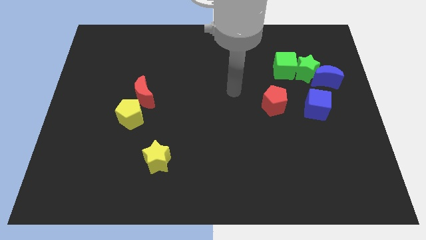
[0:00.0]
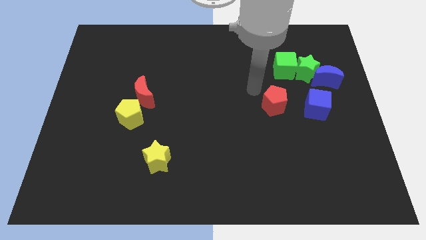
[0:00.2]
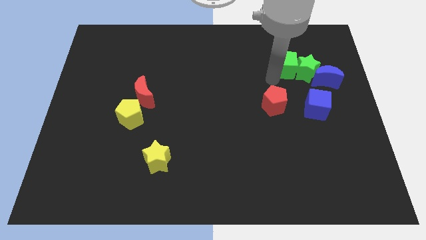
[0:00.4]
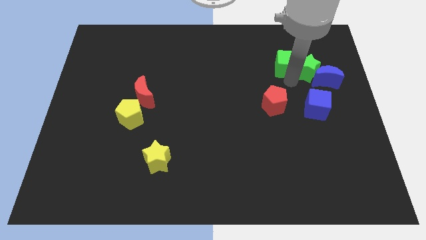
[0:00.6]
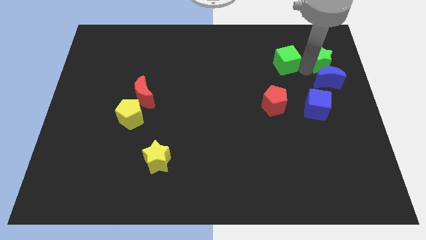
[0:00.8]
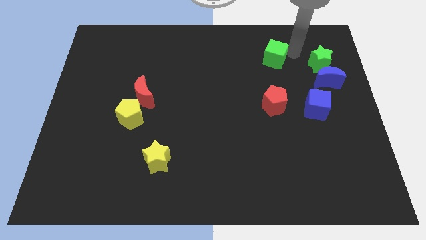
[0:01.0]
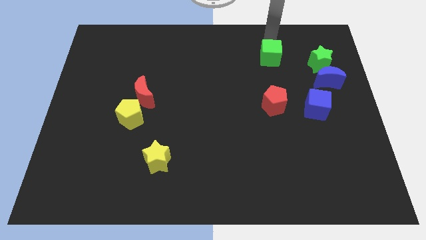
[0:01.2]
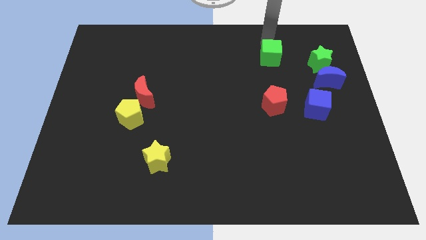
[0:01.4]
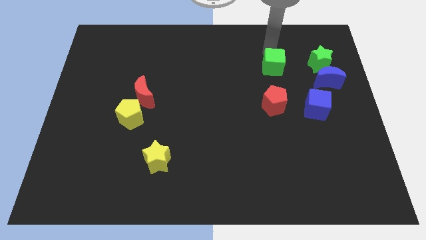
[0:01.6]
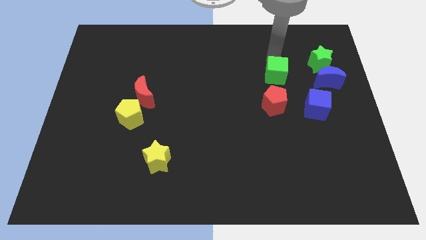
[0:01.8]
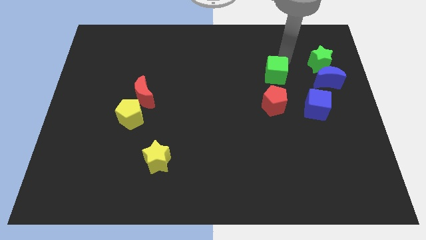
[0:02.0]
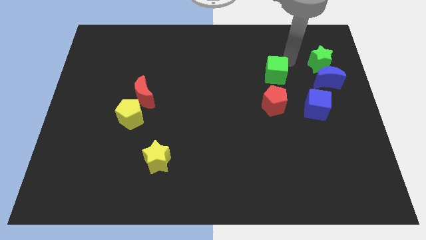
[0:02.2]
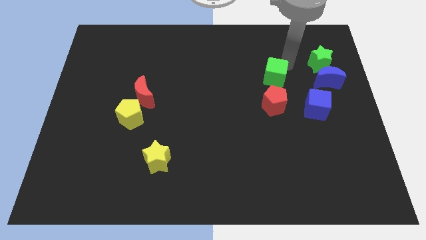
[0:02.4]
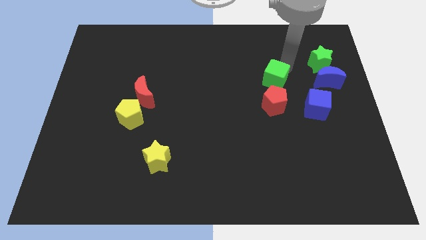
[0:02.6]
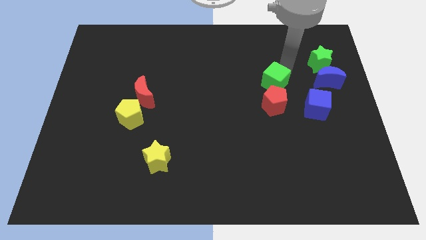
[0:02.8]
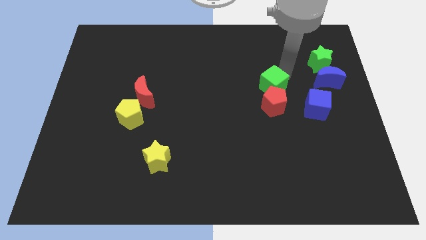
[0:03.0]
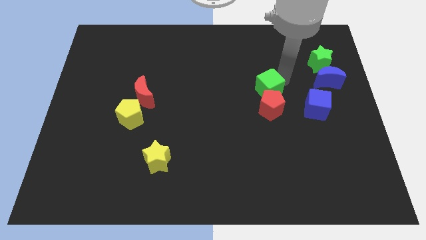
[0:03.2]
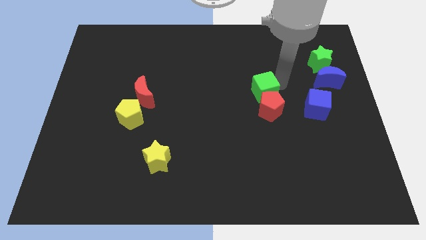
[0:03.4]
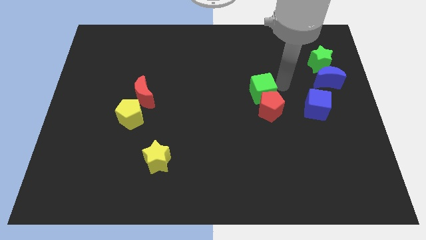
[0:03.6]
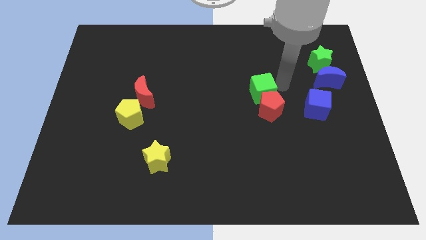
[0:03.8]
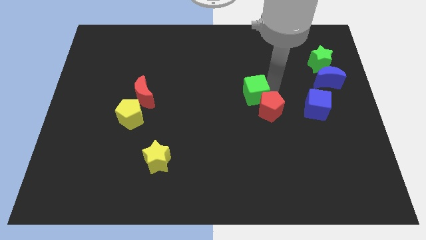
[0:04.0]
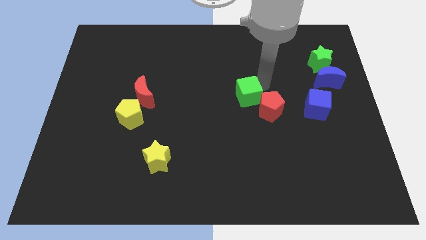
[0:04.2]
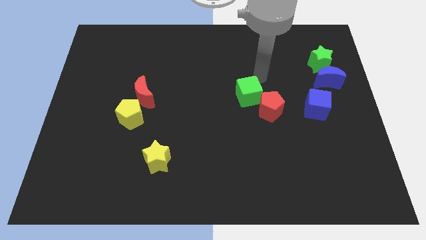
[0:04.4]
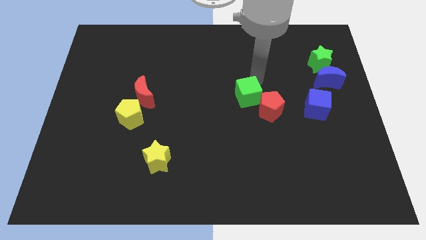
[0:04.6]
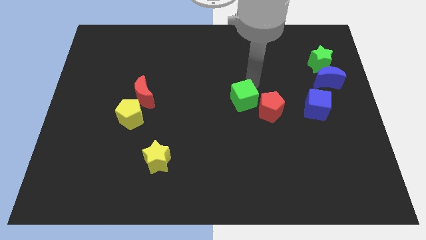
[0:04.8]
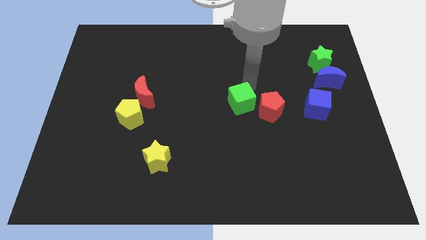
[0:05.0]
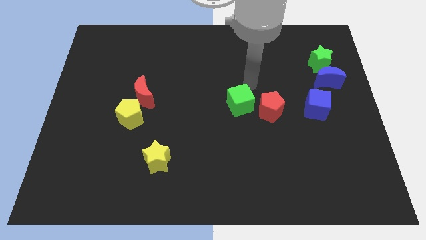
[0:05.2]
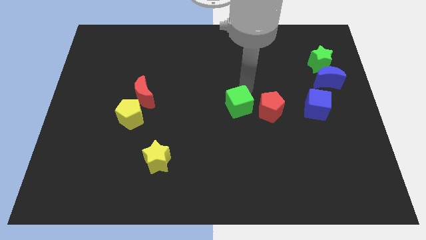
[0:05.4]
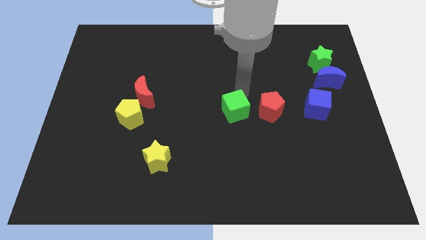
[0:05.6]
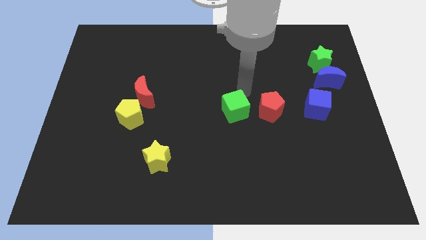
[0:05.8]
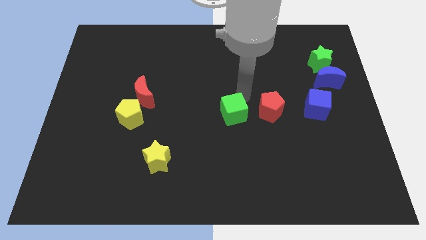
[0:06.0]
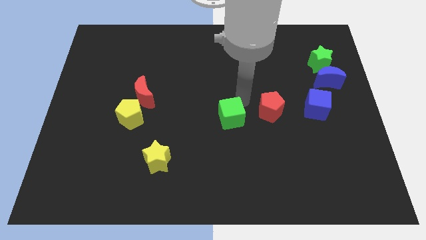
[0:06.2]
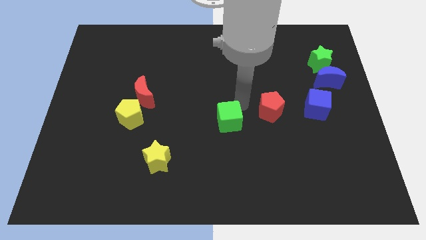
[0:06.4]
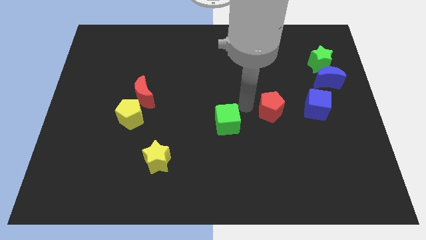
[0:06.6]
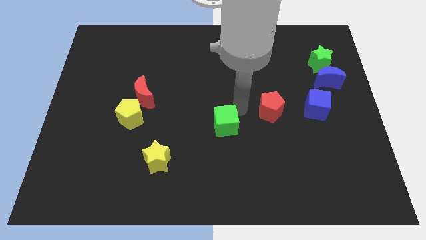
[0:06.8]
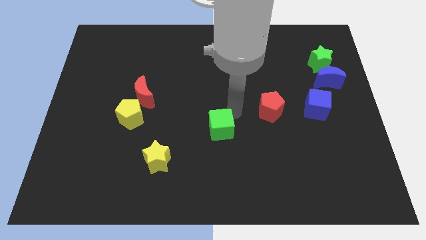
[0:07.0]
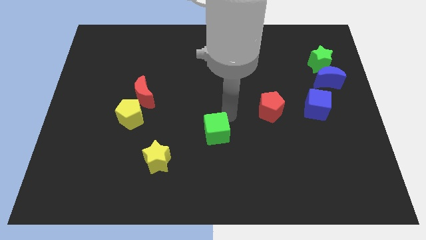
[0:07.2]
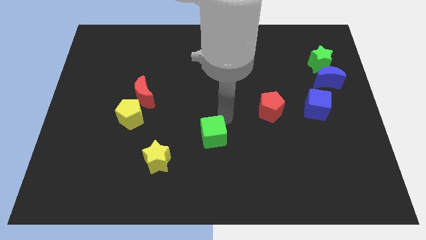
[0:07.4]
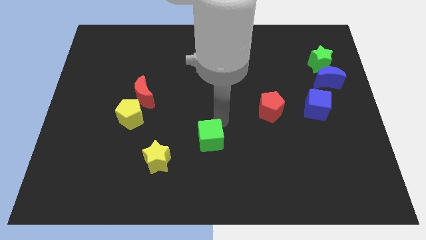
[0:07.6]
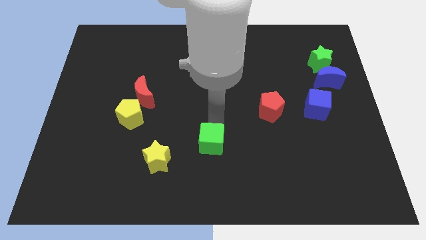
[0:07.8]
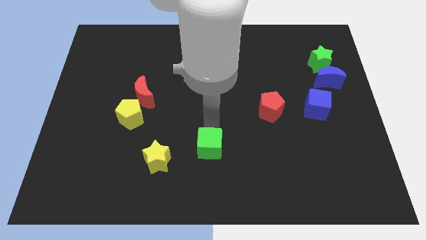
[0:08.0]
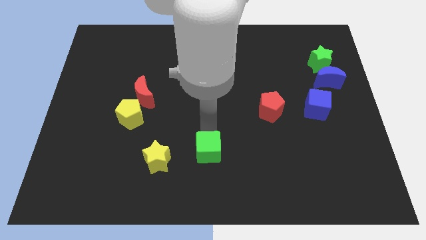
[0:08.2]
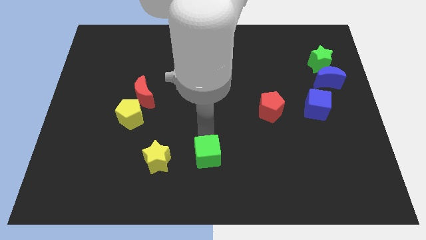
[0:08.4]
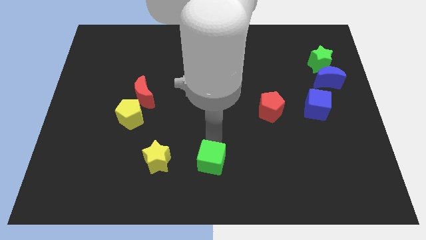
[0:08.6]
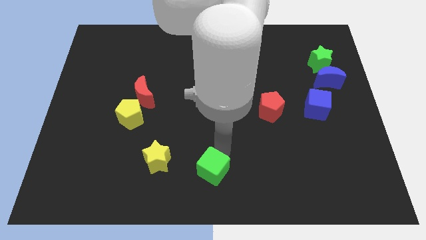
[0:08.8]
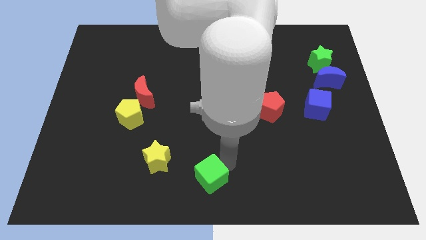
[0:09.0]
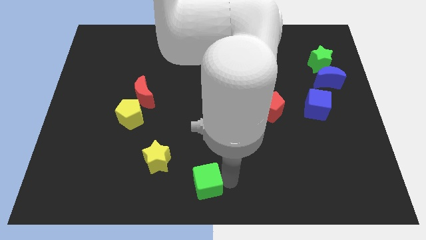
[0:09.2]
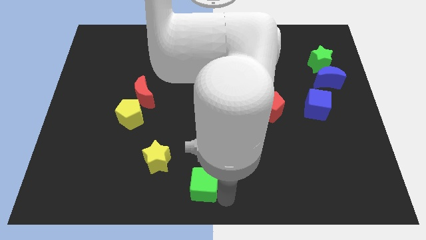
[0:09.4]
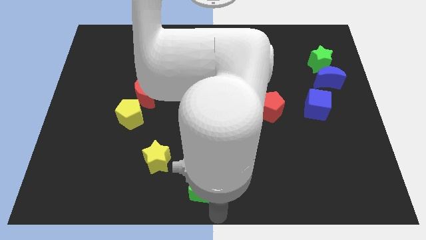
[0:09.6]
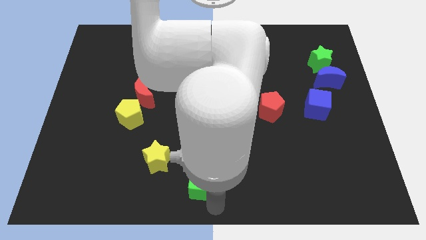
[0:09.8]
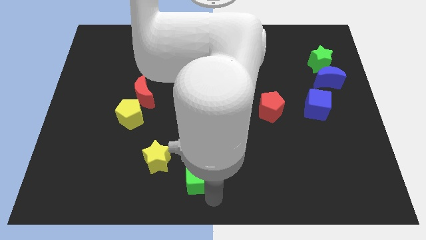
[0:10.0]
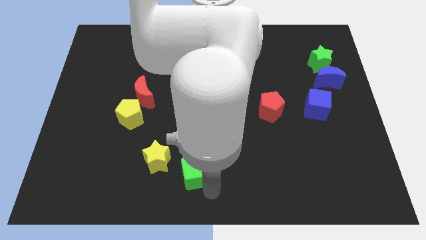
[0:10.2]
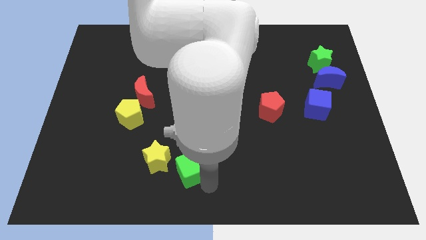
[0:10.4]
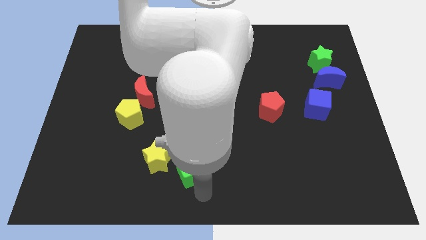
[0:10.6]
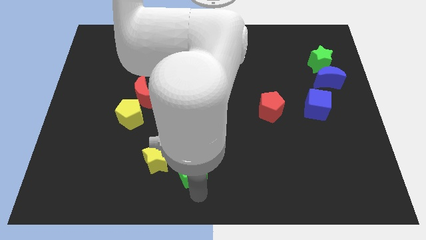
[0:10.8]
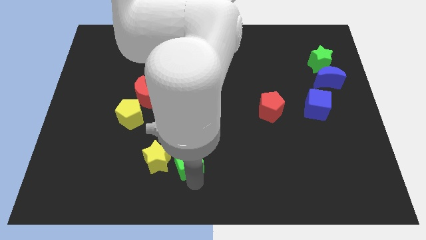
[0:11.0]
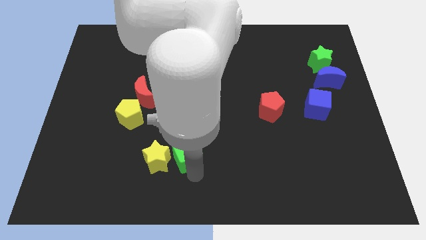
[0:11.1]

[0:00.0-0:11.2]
slide the green cube towards the yellow star
